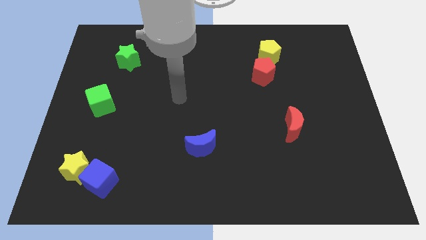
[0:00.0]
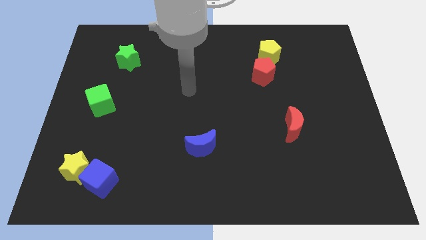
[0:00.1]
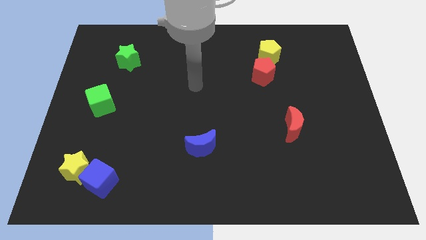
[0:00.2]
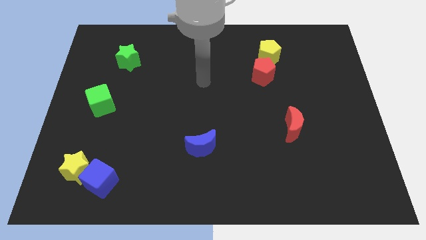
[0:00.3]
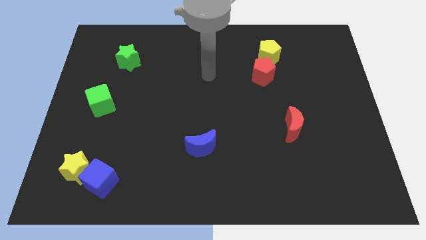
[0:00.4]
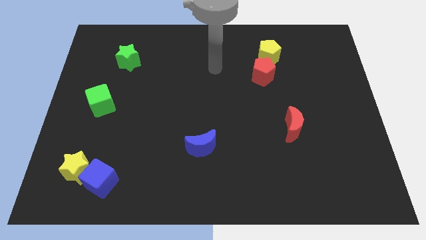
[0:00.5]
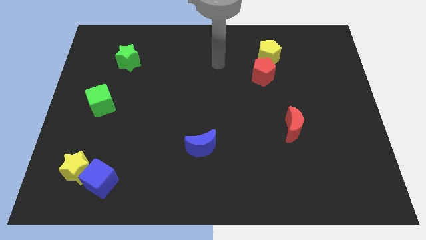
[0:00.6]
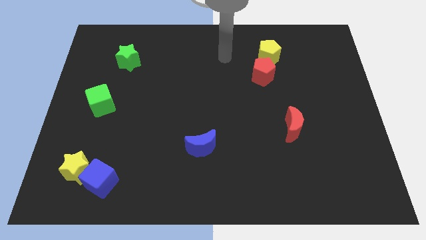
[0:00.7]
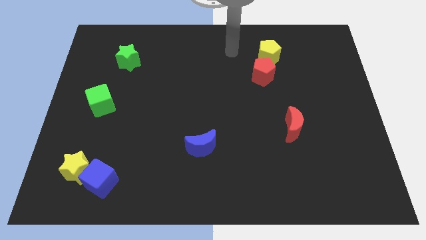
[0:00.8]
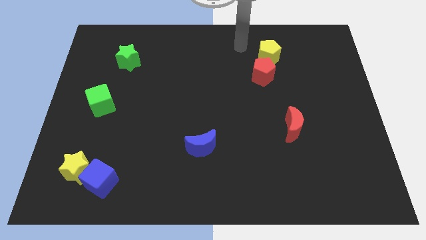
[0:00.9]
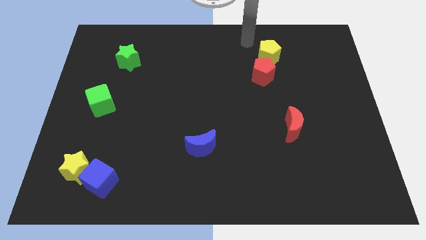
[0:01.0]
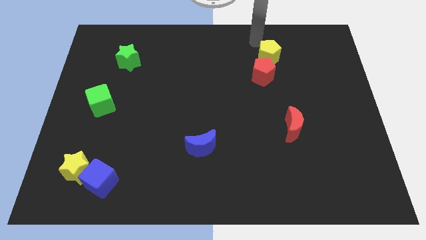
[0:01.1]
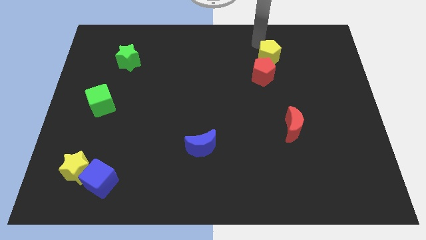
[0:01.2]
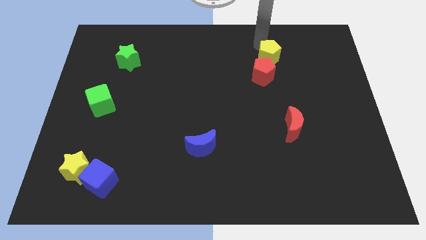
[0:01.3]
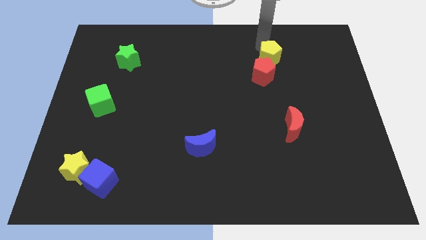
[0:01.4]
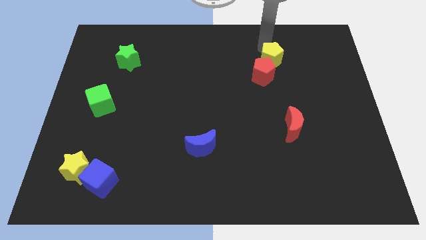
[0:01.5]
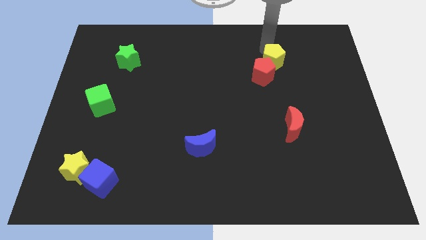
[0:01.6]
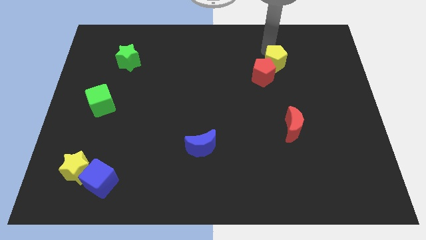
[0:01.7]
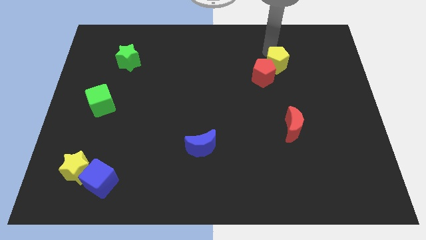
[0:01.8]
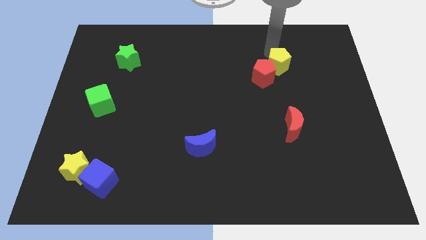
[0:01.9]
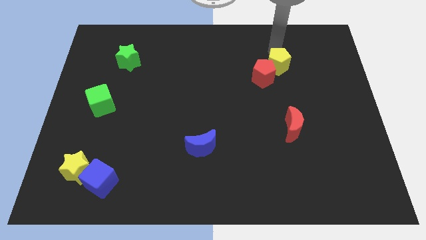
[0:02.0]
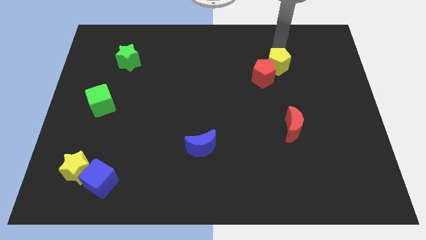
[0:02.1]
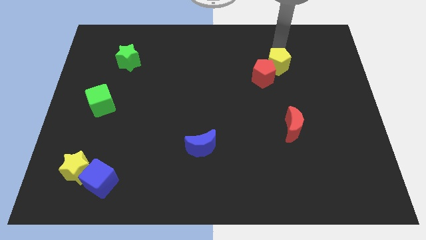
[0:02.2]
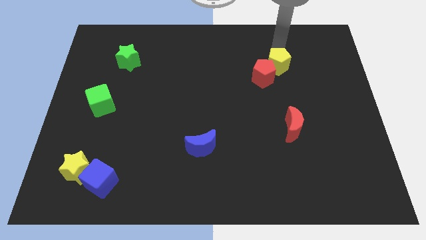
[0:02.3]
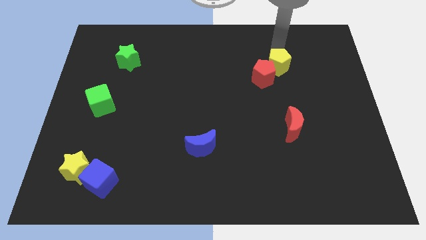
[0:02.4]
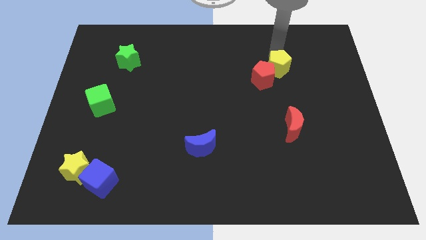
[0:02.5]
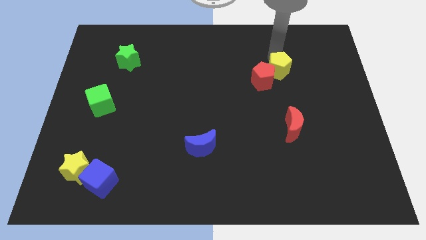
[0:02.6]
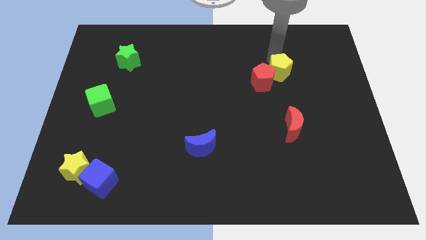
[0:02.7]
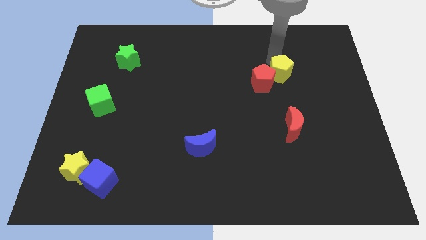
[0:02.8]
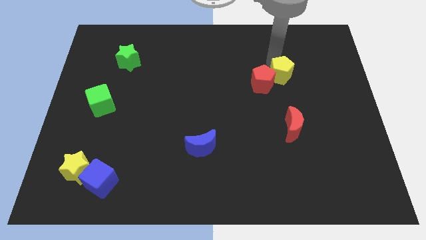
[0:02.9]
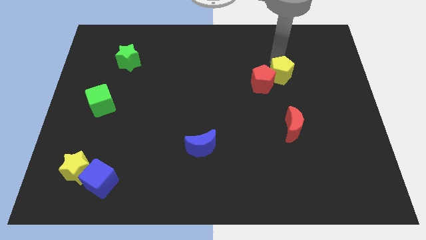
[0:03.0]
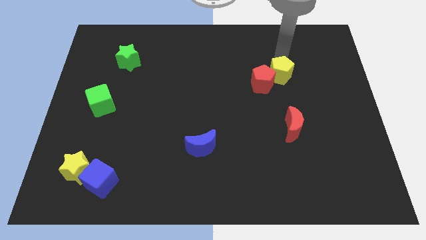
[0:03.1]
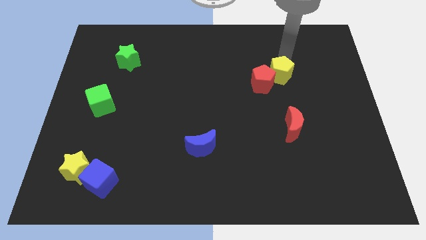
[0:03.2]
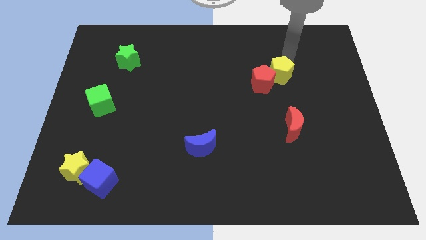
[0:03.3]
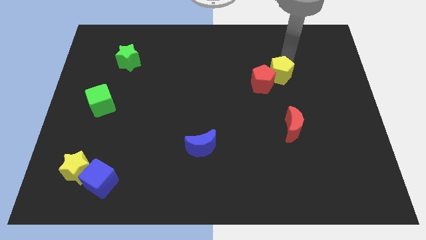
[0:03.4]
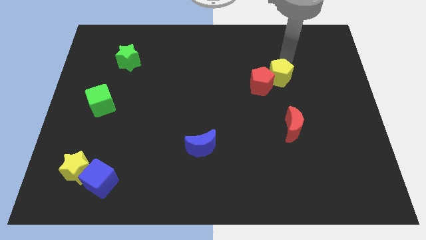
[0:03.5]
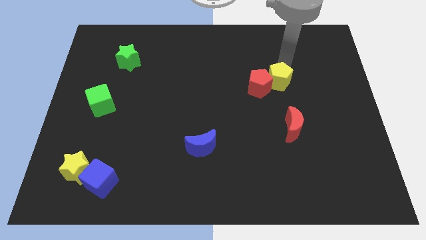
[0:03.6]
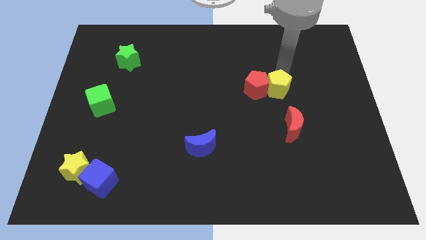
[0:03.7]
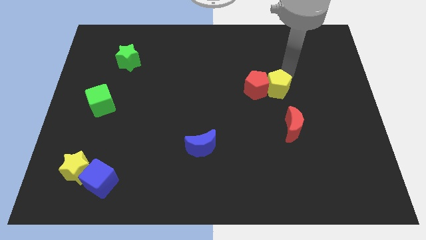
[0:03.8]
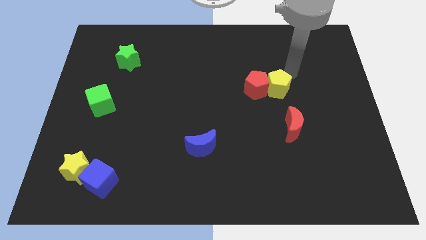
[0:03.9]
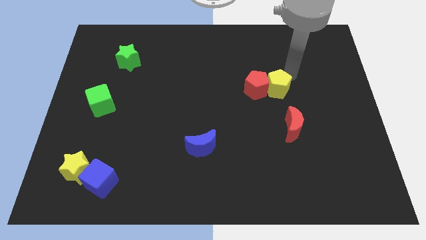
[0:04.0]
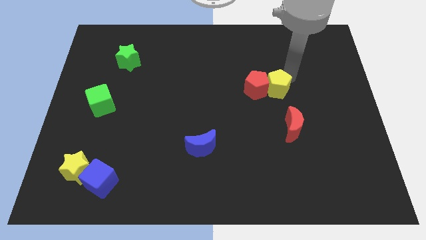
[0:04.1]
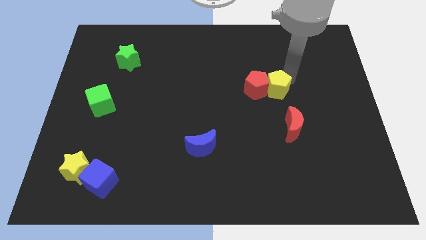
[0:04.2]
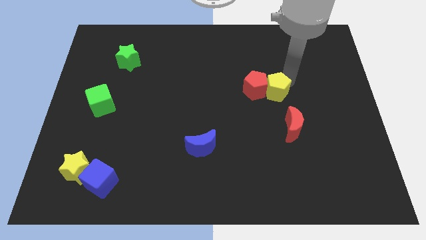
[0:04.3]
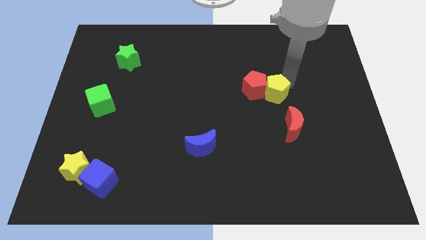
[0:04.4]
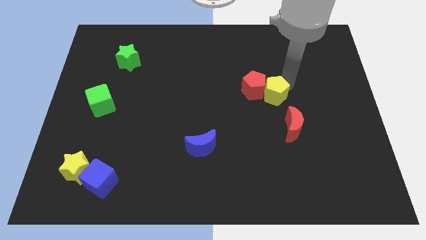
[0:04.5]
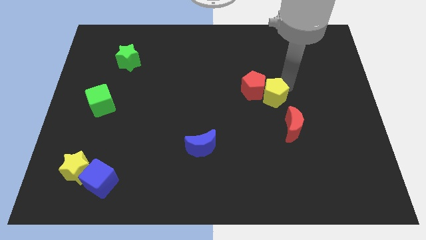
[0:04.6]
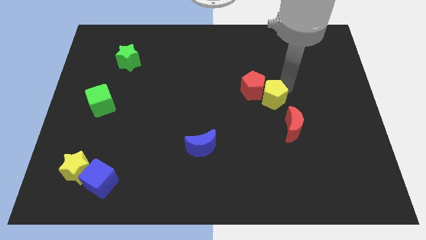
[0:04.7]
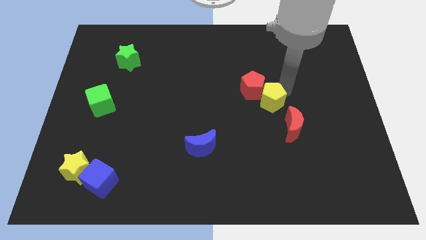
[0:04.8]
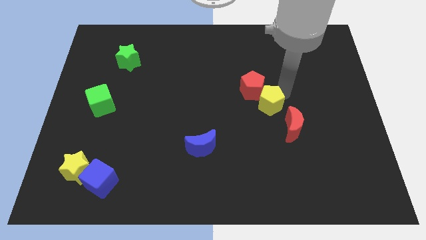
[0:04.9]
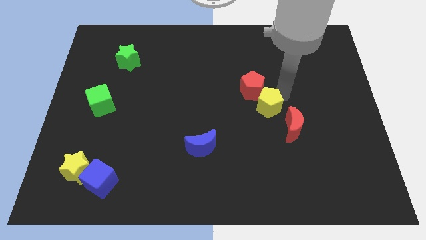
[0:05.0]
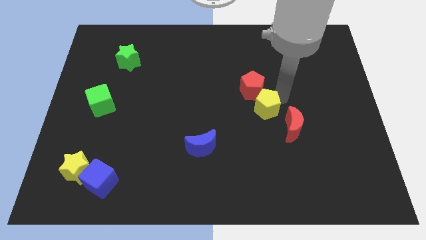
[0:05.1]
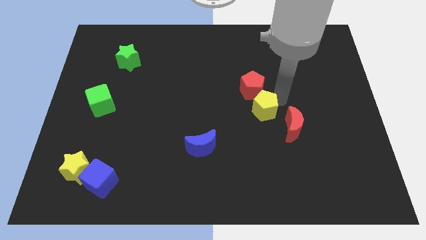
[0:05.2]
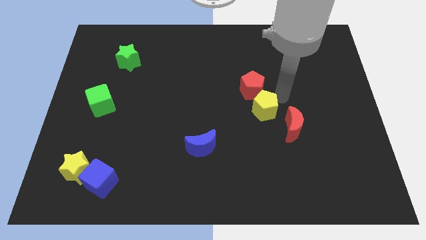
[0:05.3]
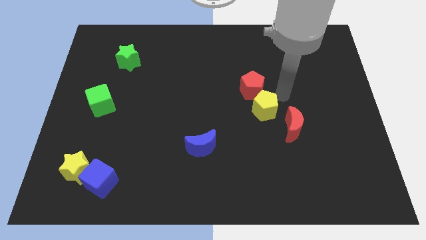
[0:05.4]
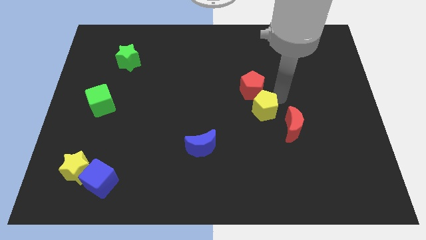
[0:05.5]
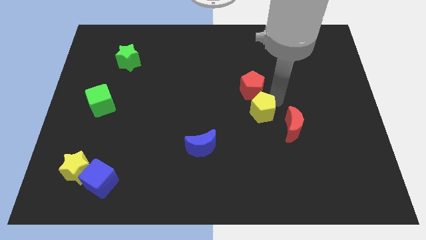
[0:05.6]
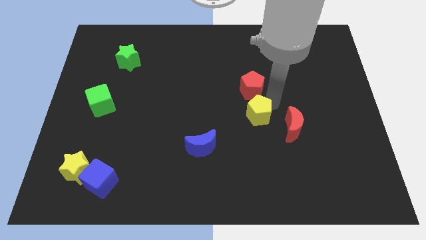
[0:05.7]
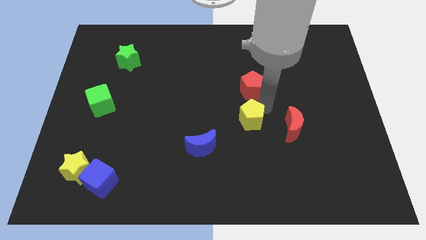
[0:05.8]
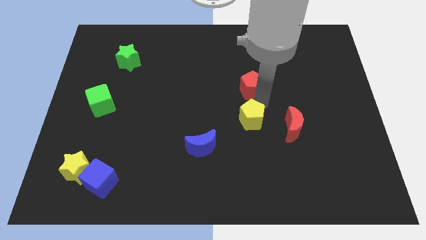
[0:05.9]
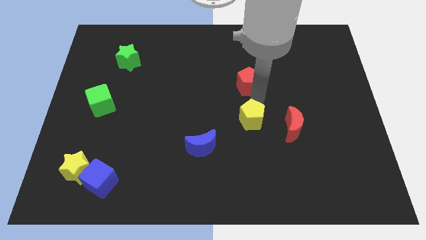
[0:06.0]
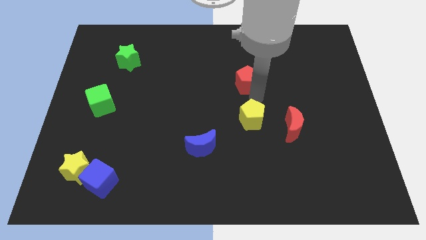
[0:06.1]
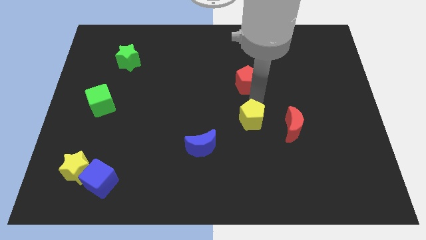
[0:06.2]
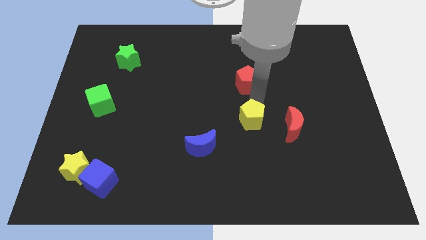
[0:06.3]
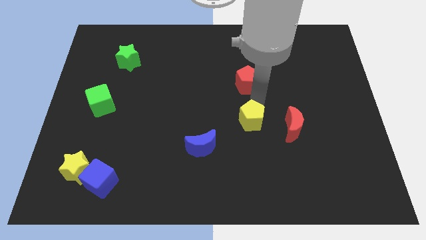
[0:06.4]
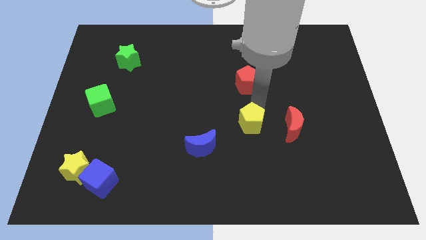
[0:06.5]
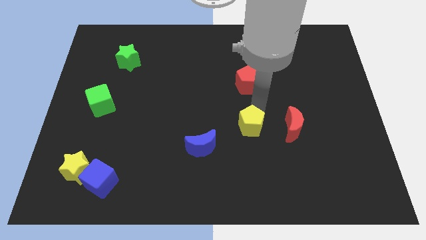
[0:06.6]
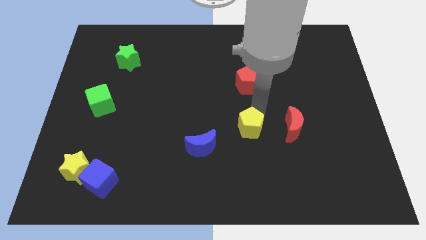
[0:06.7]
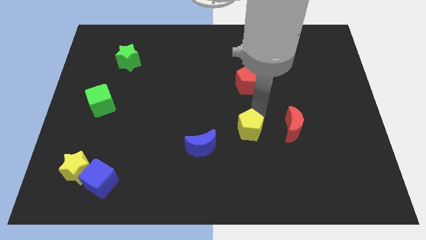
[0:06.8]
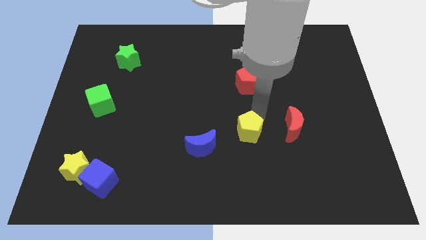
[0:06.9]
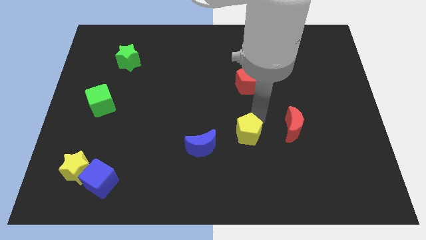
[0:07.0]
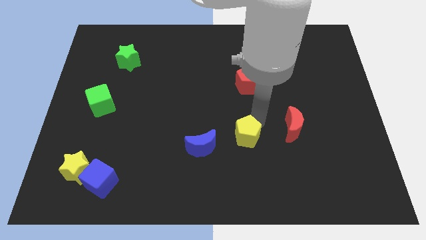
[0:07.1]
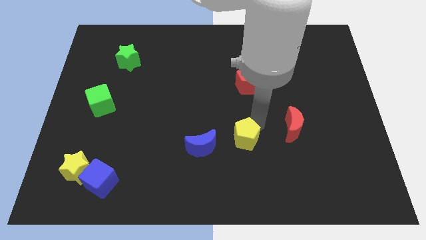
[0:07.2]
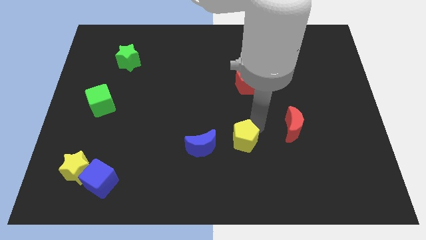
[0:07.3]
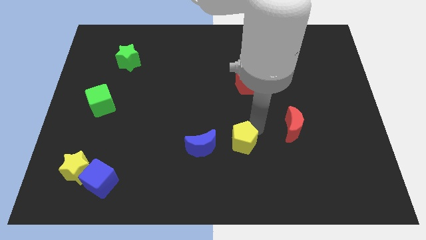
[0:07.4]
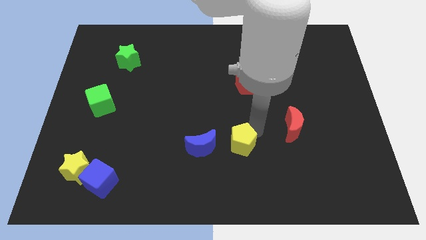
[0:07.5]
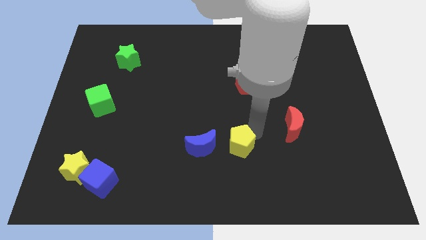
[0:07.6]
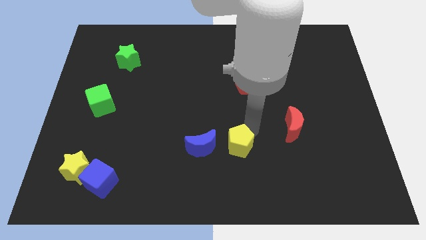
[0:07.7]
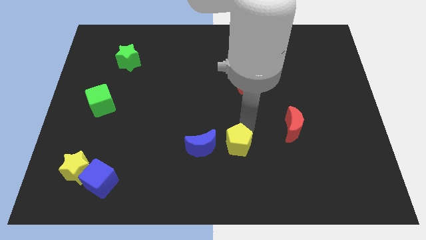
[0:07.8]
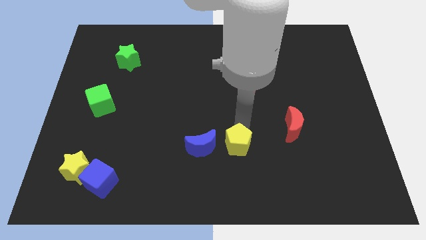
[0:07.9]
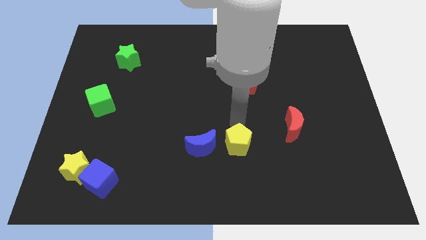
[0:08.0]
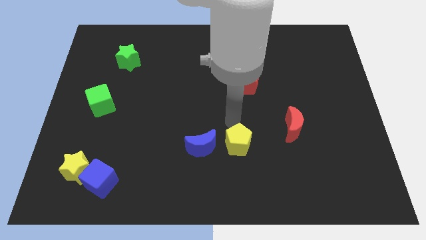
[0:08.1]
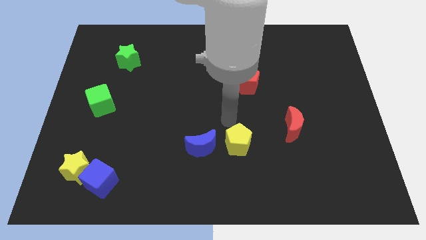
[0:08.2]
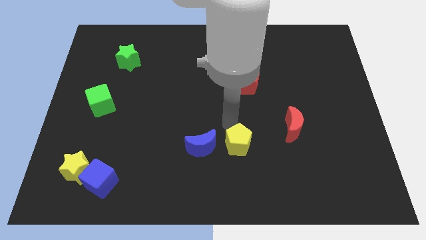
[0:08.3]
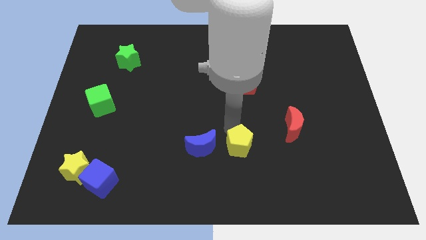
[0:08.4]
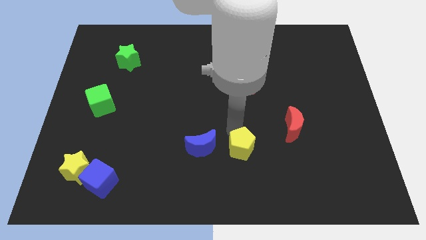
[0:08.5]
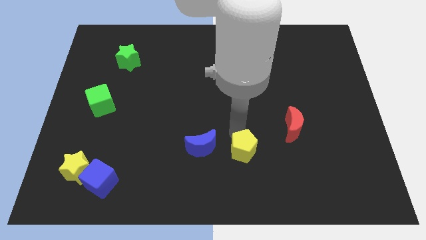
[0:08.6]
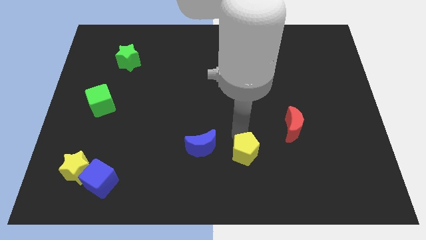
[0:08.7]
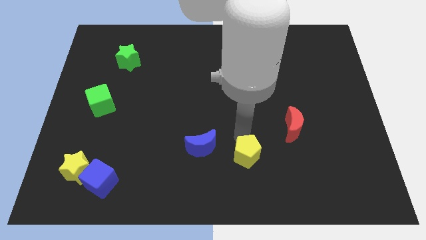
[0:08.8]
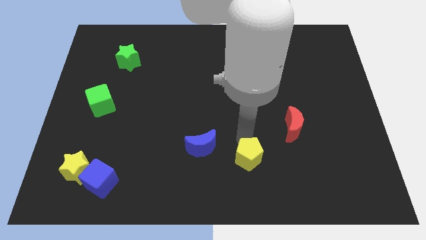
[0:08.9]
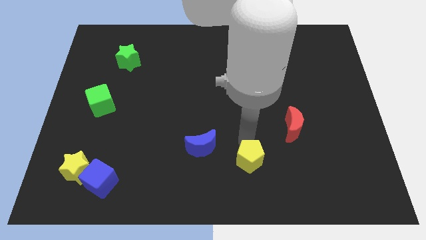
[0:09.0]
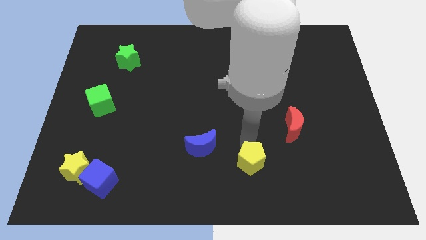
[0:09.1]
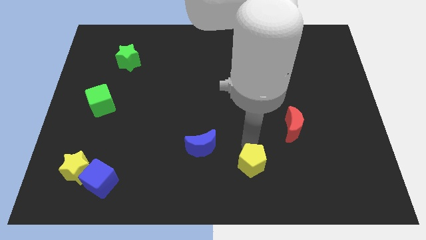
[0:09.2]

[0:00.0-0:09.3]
slide the yellow pentagon to the bottom
